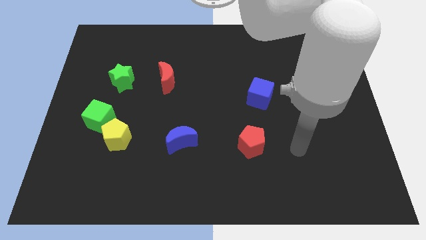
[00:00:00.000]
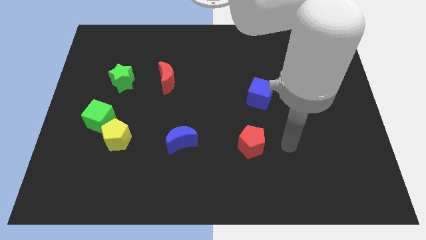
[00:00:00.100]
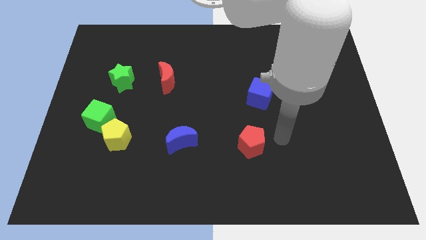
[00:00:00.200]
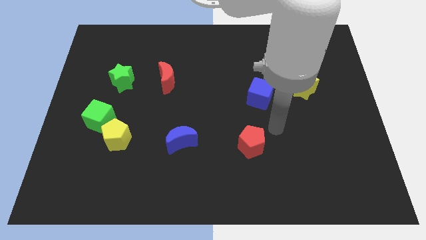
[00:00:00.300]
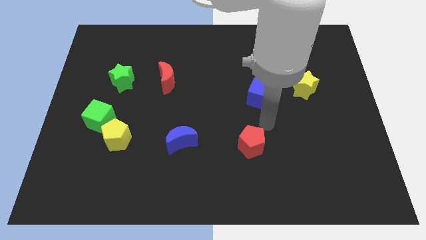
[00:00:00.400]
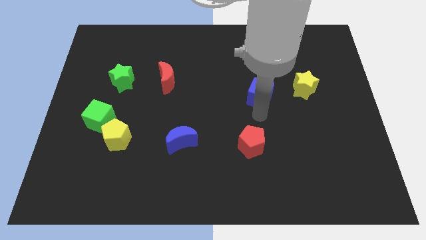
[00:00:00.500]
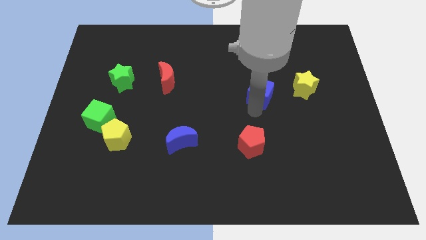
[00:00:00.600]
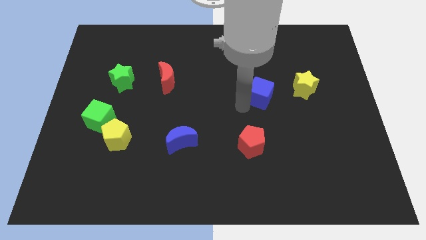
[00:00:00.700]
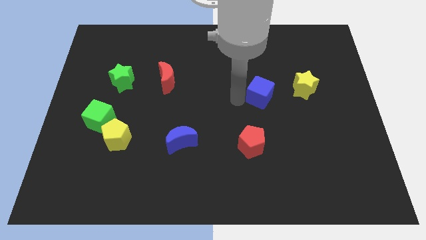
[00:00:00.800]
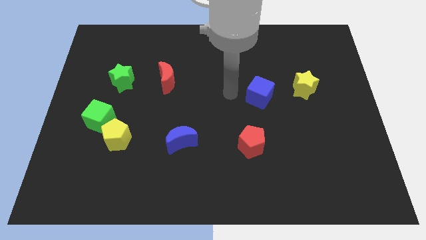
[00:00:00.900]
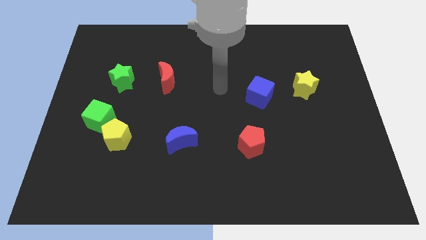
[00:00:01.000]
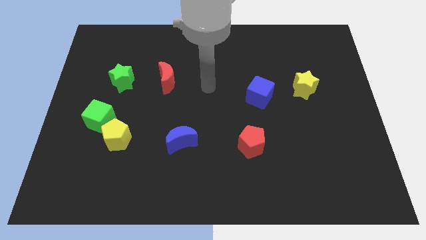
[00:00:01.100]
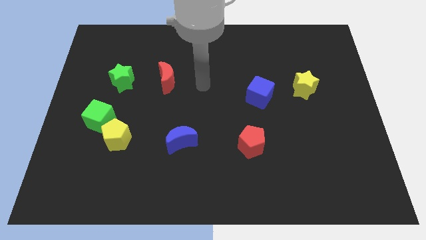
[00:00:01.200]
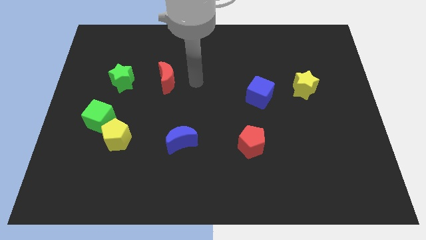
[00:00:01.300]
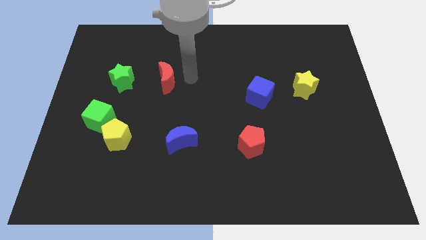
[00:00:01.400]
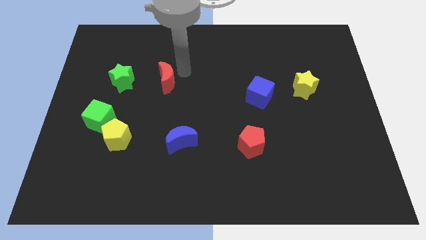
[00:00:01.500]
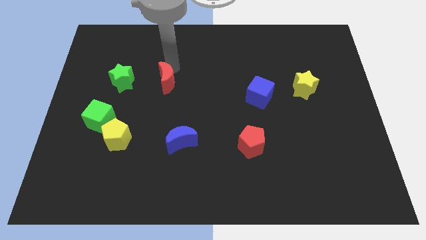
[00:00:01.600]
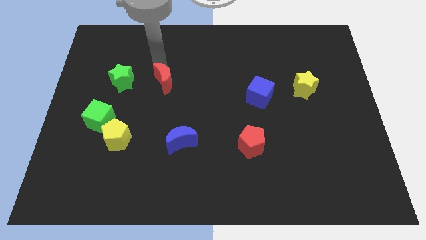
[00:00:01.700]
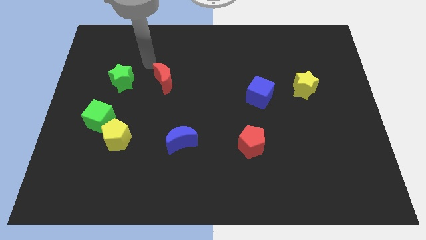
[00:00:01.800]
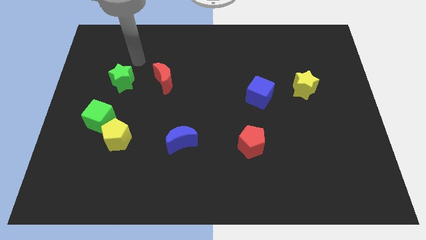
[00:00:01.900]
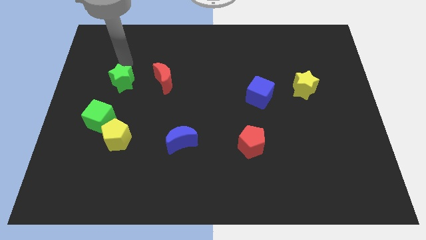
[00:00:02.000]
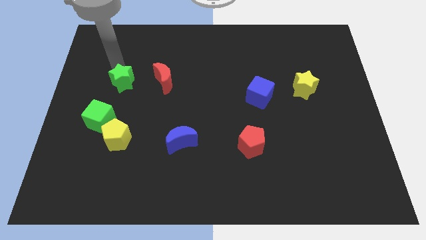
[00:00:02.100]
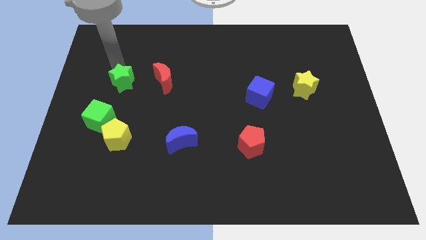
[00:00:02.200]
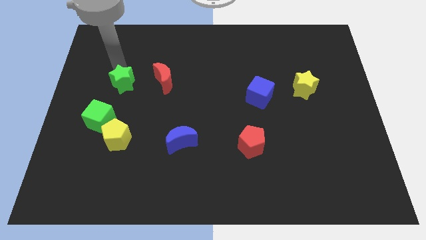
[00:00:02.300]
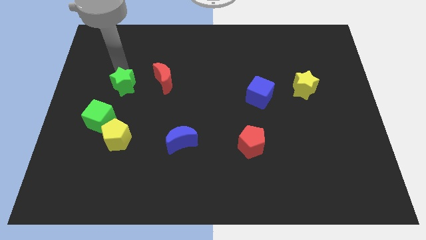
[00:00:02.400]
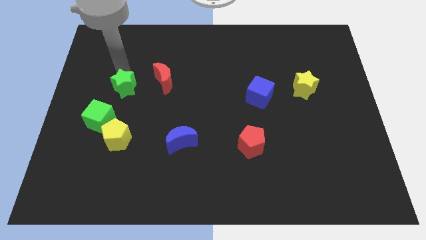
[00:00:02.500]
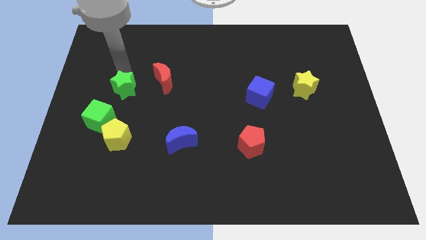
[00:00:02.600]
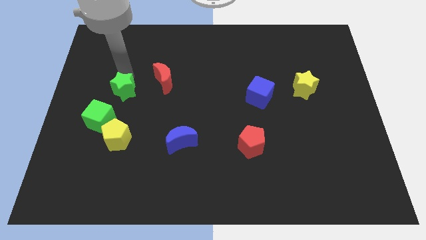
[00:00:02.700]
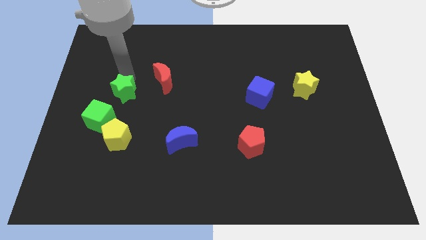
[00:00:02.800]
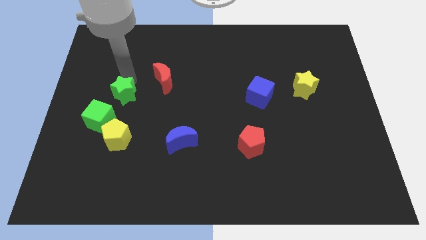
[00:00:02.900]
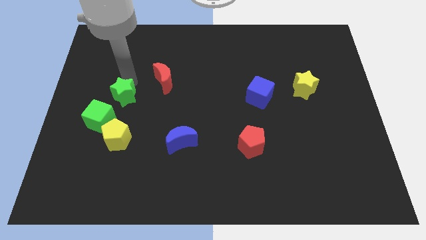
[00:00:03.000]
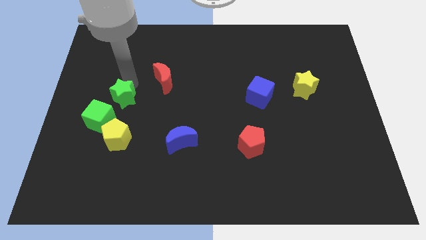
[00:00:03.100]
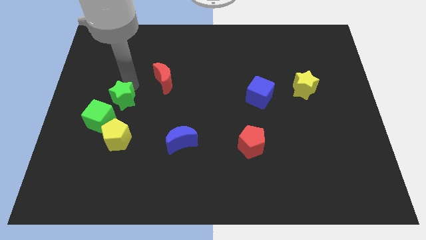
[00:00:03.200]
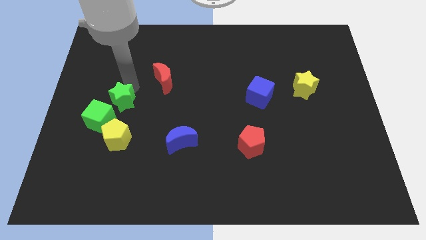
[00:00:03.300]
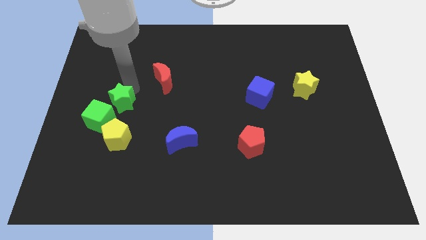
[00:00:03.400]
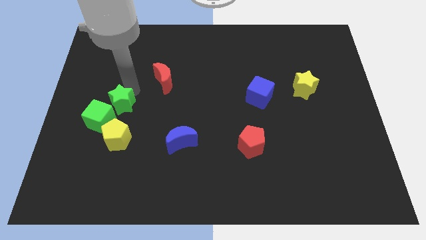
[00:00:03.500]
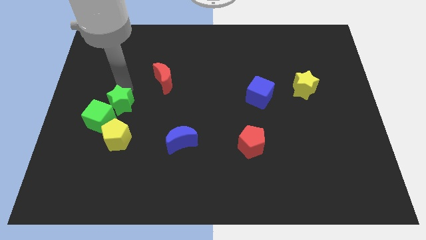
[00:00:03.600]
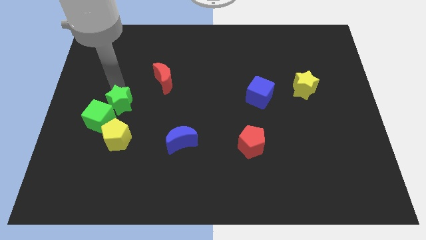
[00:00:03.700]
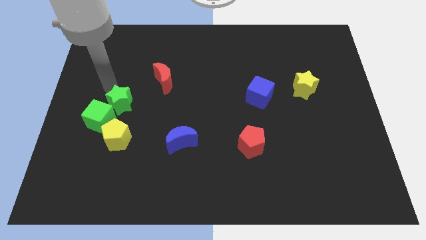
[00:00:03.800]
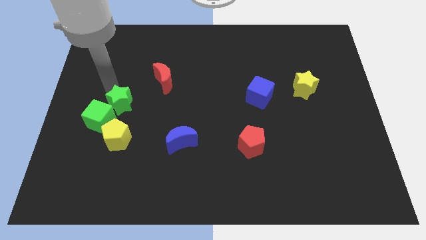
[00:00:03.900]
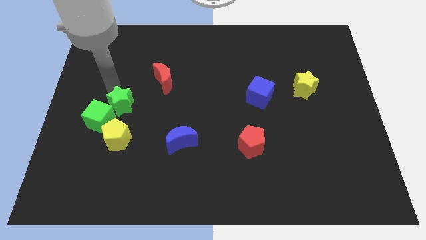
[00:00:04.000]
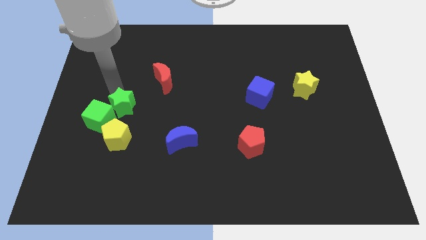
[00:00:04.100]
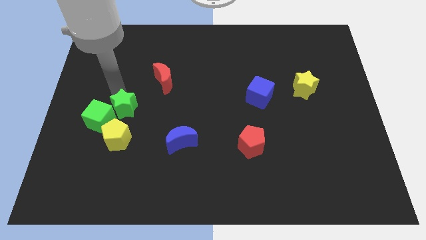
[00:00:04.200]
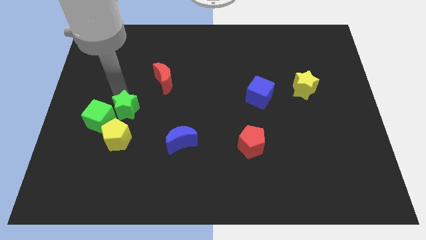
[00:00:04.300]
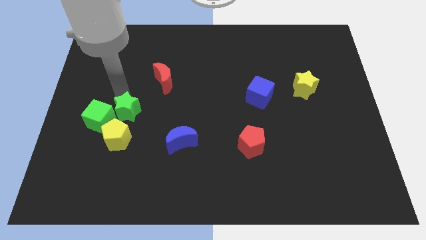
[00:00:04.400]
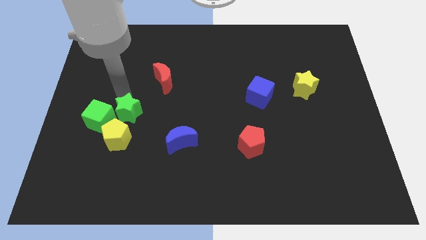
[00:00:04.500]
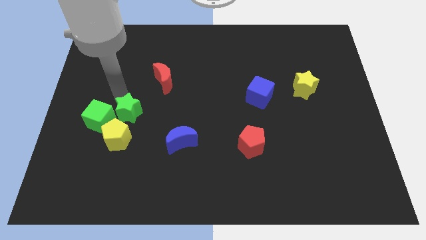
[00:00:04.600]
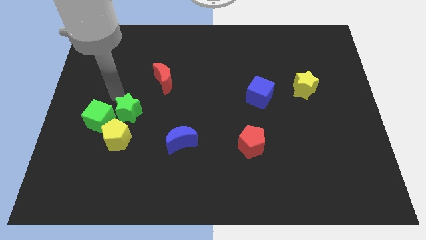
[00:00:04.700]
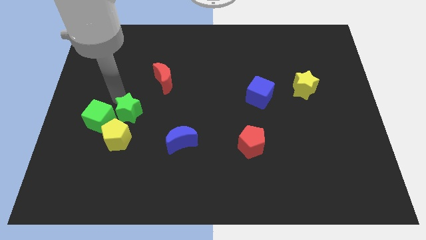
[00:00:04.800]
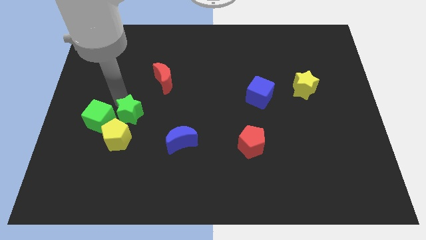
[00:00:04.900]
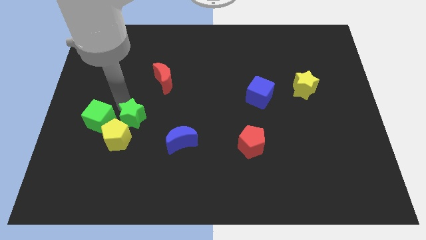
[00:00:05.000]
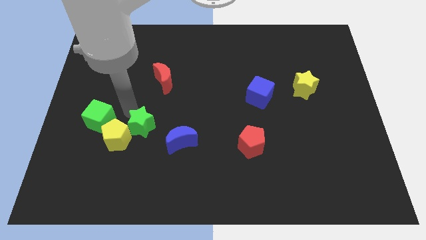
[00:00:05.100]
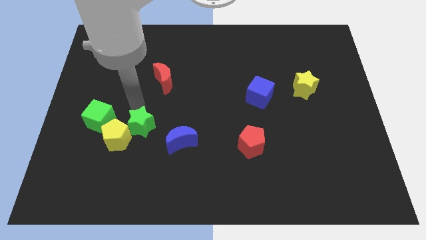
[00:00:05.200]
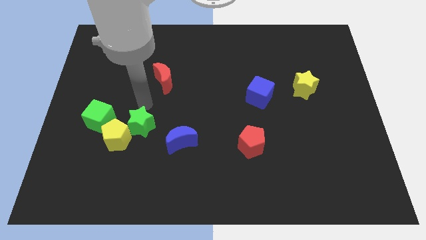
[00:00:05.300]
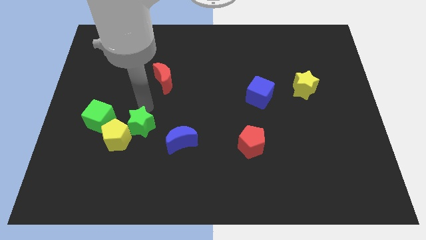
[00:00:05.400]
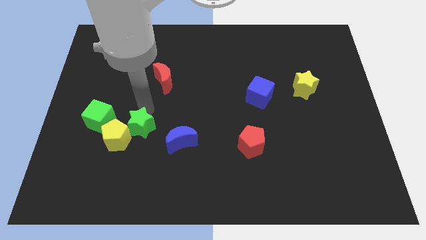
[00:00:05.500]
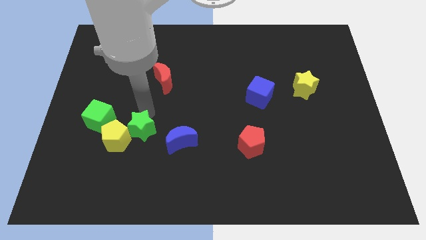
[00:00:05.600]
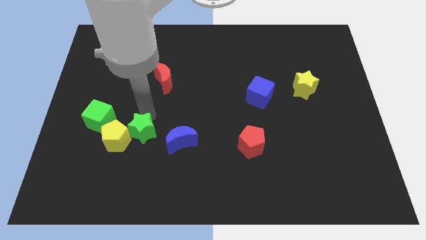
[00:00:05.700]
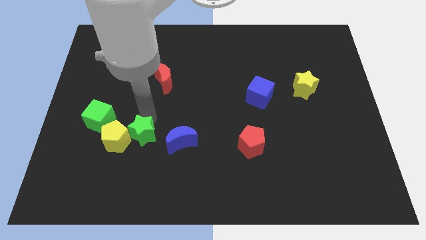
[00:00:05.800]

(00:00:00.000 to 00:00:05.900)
push the green star to the bottom right of the yellow pentagon

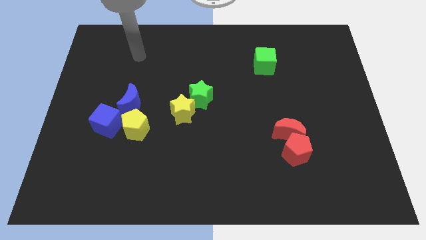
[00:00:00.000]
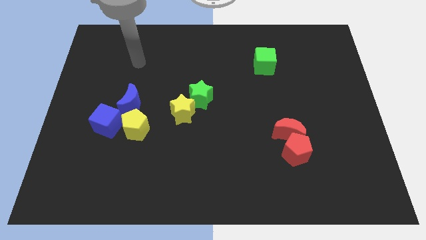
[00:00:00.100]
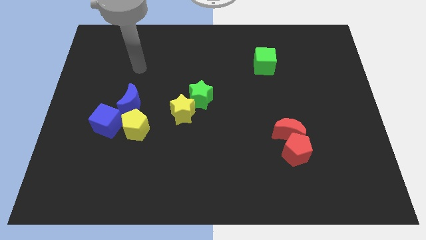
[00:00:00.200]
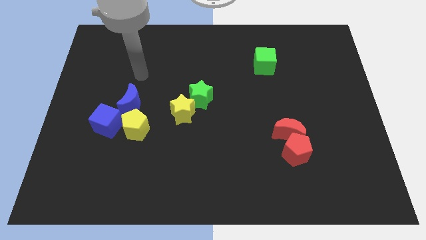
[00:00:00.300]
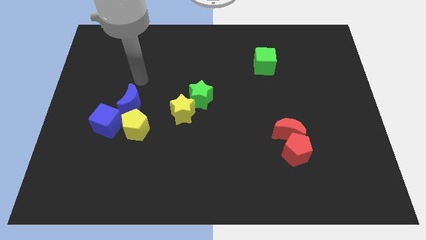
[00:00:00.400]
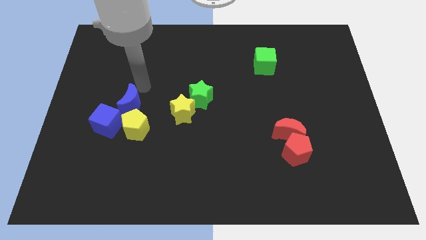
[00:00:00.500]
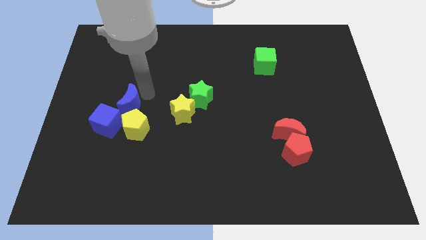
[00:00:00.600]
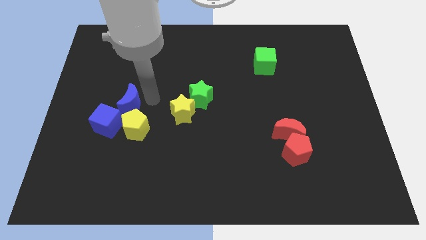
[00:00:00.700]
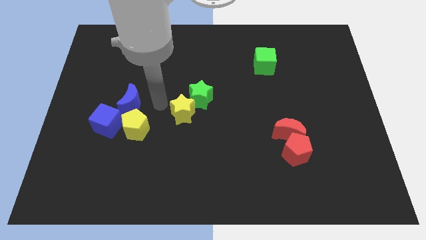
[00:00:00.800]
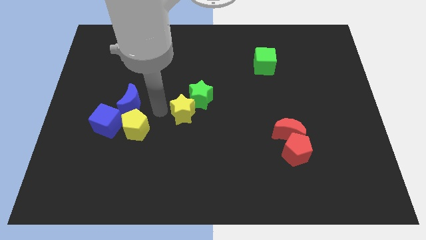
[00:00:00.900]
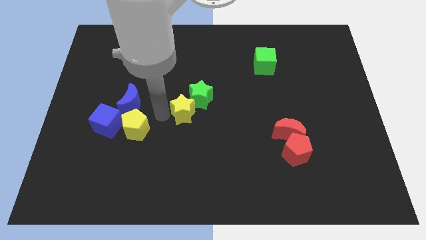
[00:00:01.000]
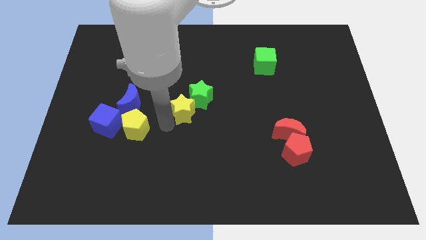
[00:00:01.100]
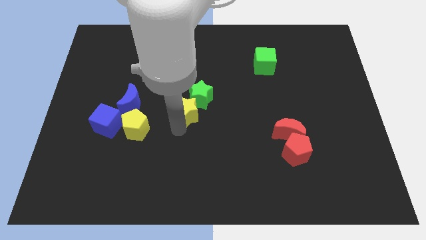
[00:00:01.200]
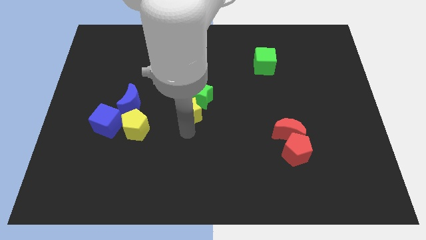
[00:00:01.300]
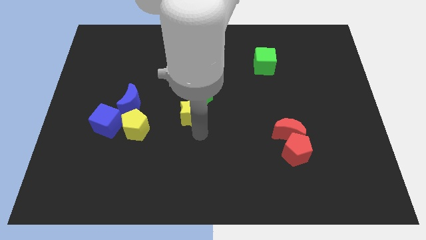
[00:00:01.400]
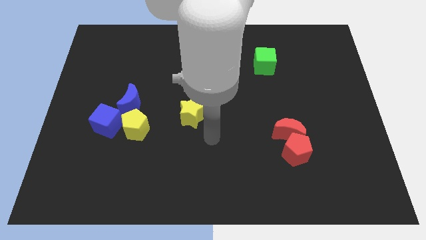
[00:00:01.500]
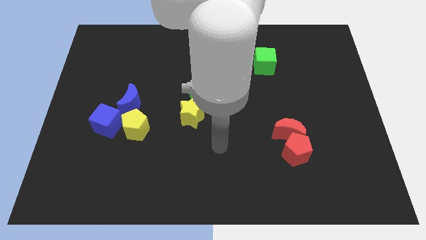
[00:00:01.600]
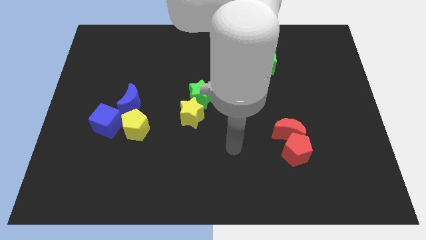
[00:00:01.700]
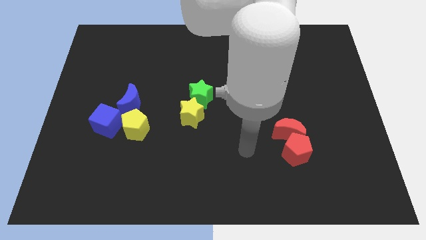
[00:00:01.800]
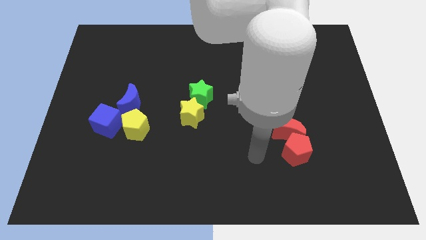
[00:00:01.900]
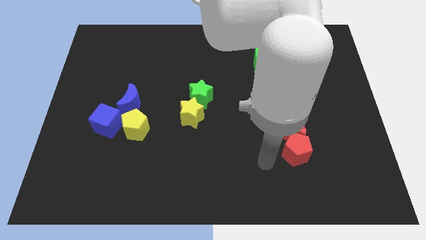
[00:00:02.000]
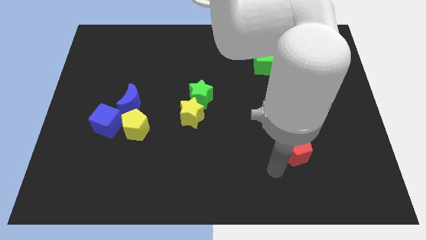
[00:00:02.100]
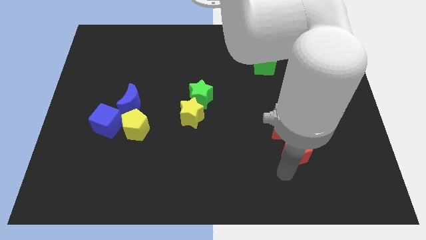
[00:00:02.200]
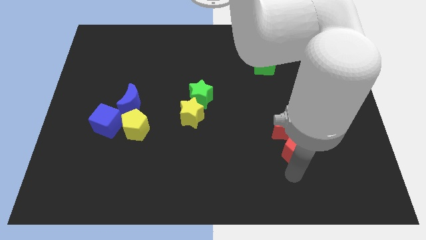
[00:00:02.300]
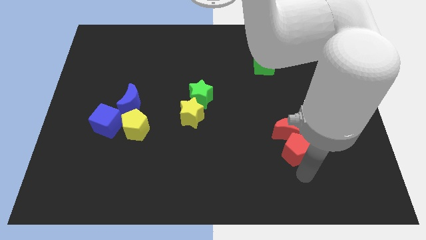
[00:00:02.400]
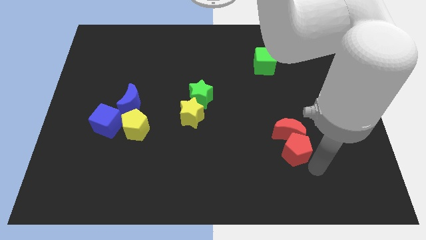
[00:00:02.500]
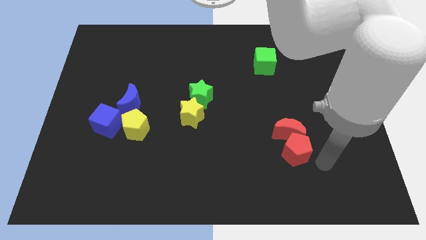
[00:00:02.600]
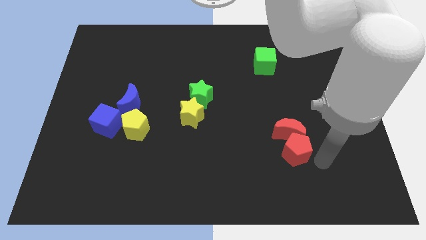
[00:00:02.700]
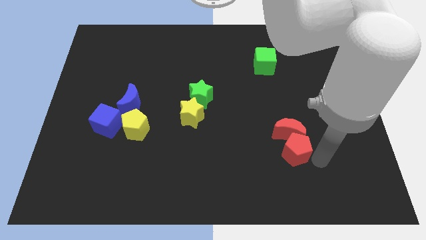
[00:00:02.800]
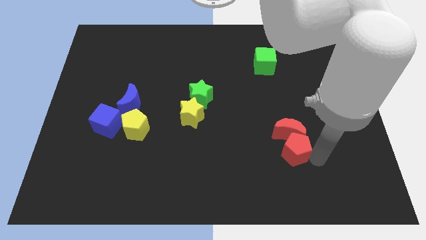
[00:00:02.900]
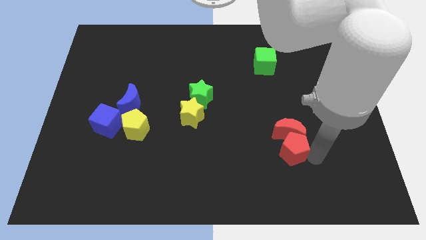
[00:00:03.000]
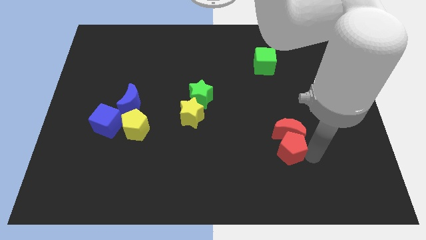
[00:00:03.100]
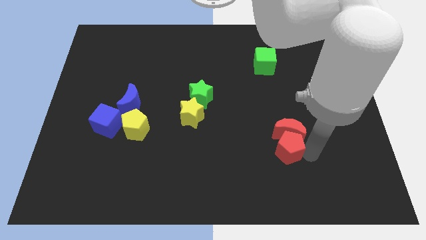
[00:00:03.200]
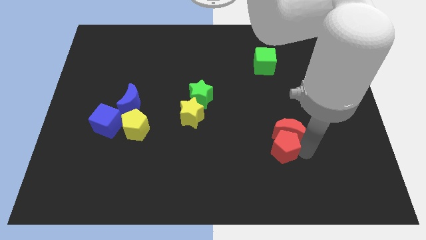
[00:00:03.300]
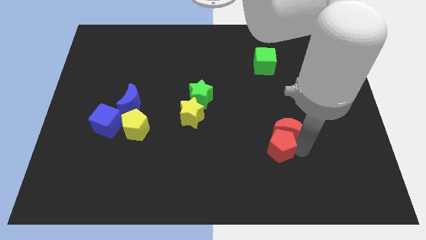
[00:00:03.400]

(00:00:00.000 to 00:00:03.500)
push the red pentagon to the left of the red moon
